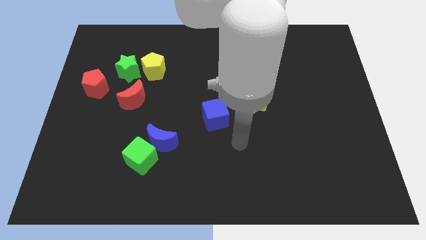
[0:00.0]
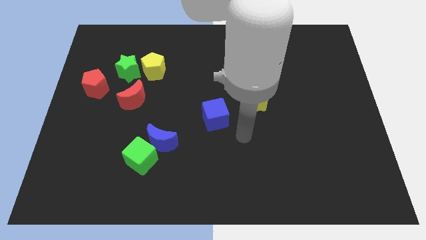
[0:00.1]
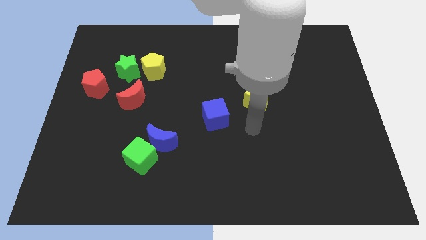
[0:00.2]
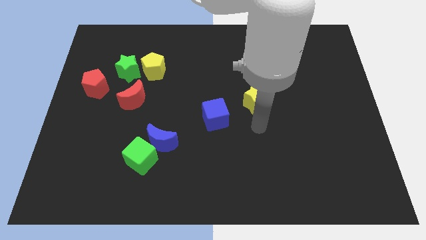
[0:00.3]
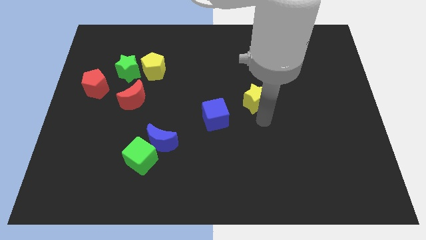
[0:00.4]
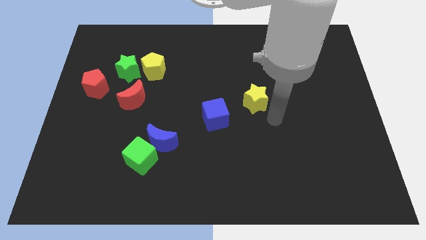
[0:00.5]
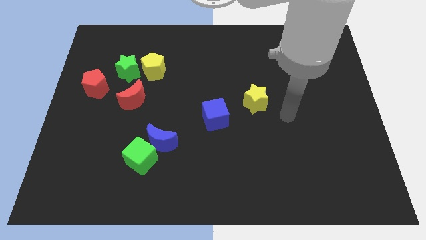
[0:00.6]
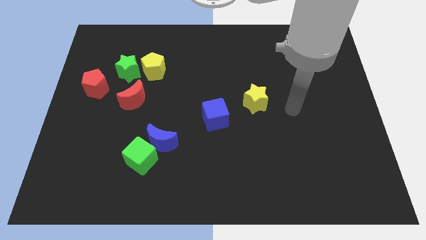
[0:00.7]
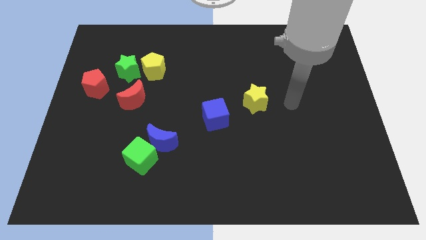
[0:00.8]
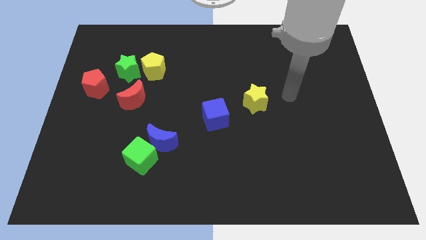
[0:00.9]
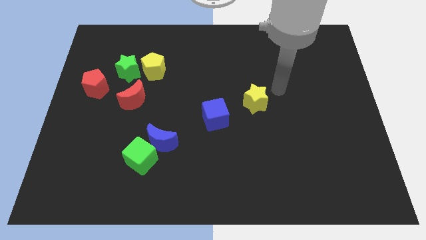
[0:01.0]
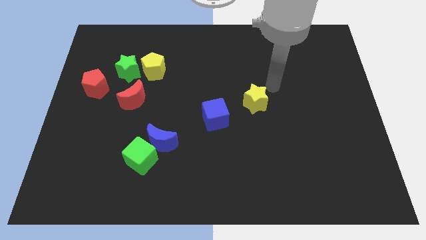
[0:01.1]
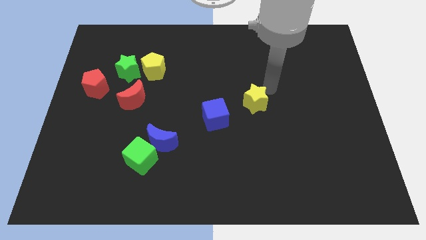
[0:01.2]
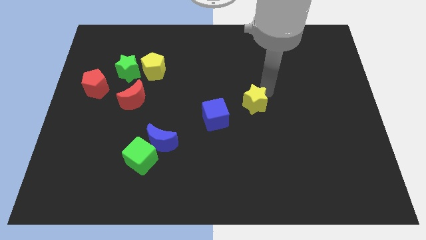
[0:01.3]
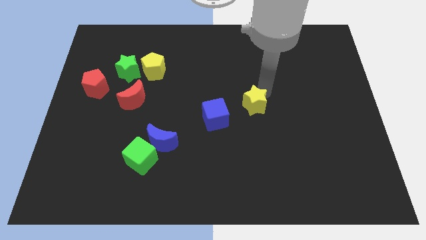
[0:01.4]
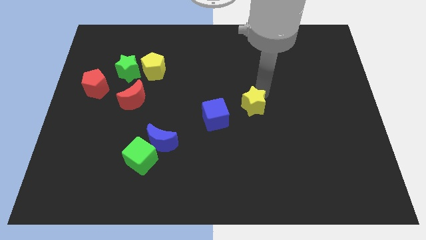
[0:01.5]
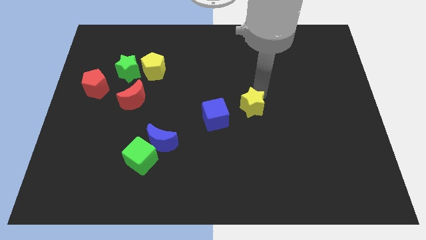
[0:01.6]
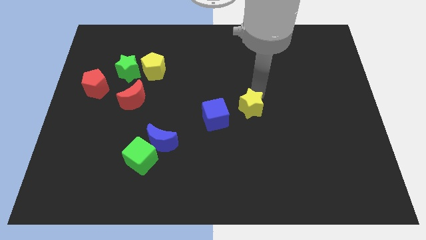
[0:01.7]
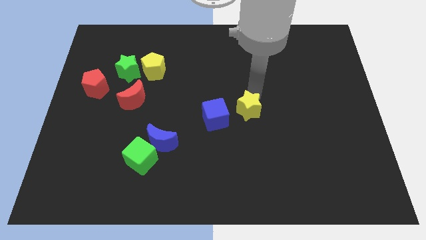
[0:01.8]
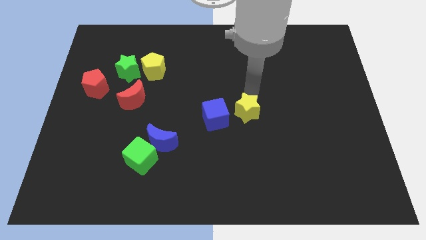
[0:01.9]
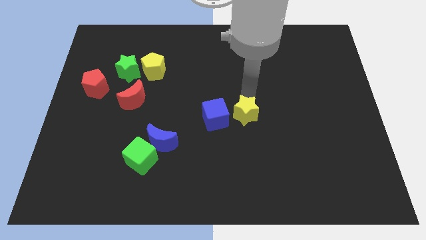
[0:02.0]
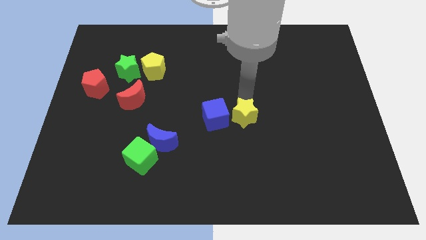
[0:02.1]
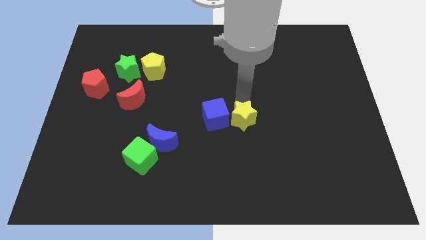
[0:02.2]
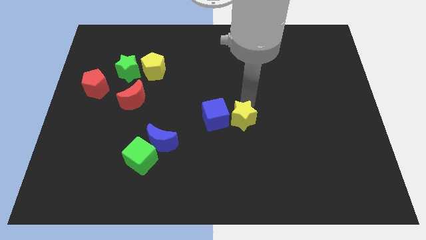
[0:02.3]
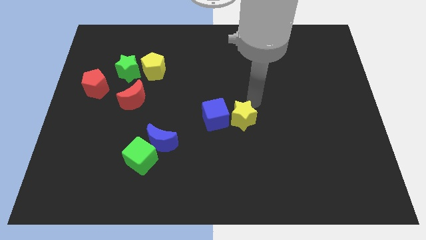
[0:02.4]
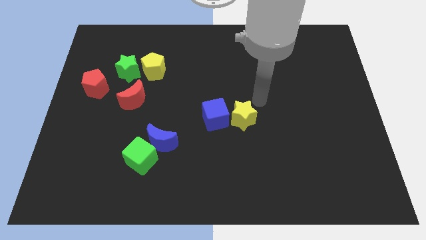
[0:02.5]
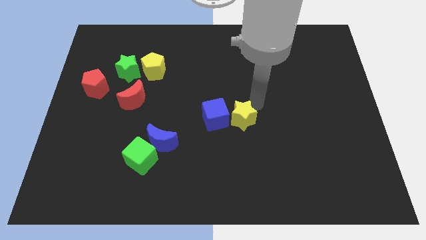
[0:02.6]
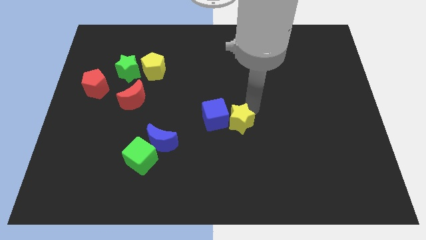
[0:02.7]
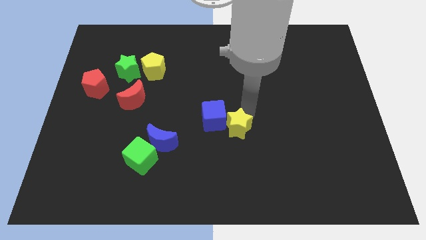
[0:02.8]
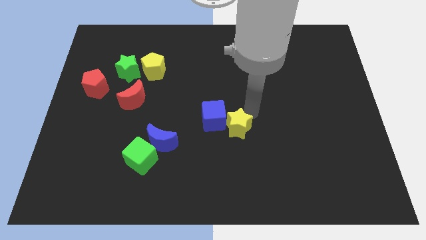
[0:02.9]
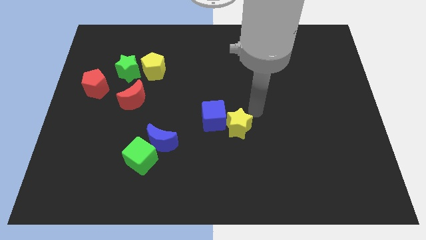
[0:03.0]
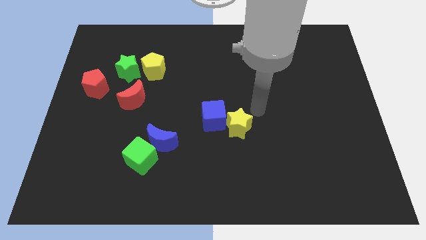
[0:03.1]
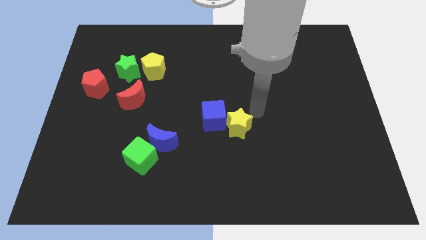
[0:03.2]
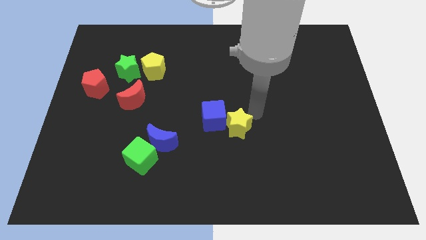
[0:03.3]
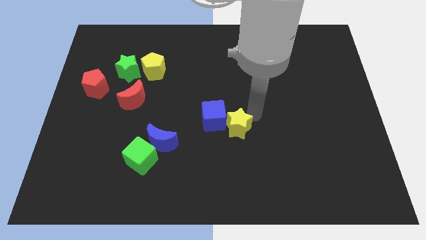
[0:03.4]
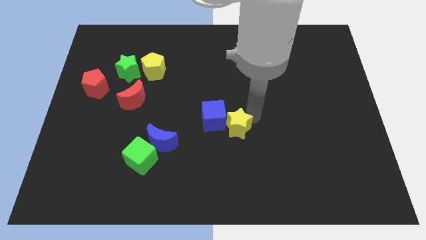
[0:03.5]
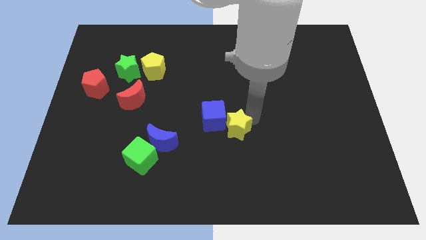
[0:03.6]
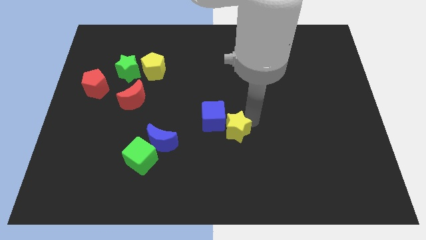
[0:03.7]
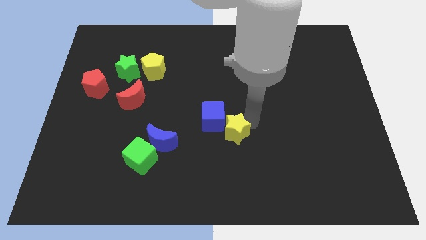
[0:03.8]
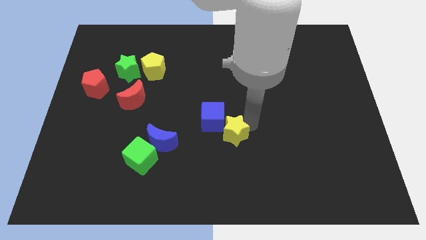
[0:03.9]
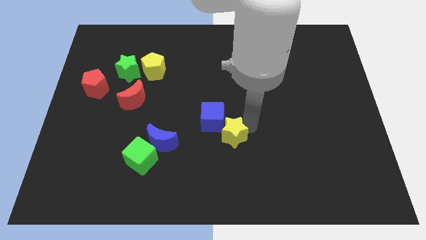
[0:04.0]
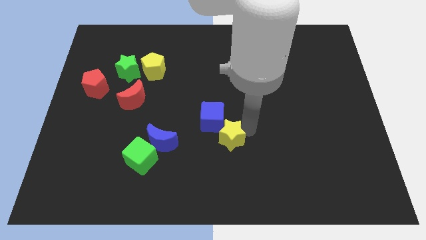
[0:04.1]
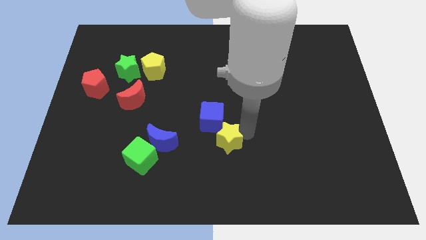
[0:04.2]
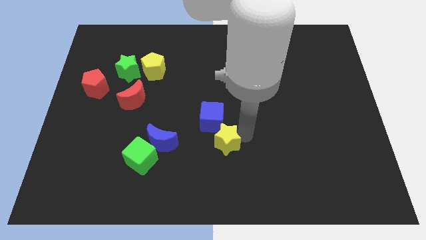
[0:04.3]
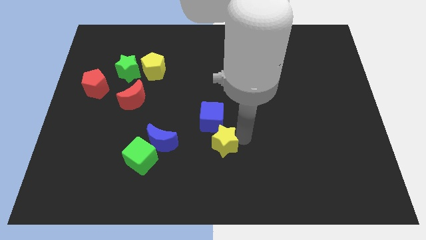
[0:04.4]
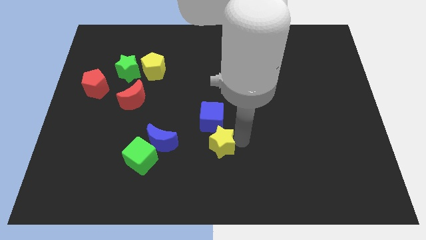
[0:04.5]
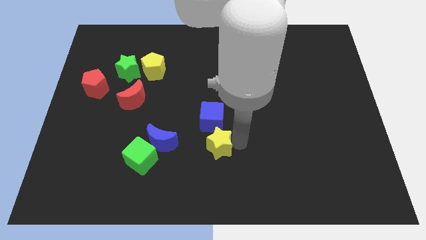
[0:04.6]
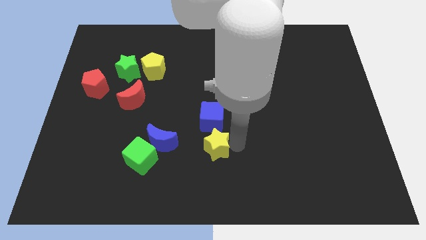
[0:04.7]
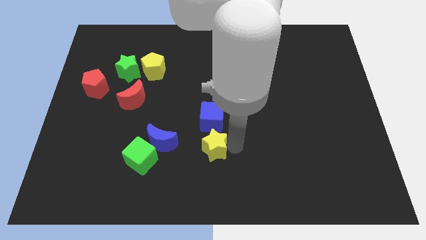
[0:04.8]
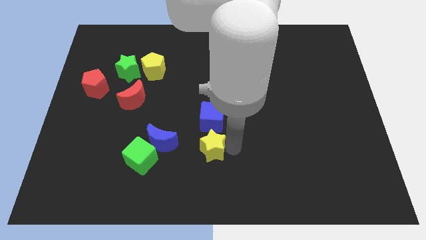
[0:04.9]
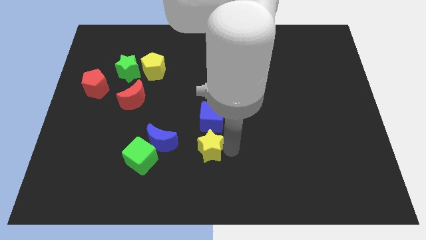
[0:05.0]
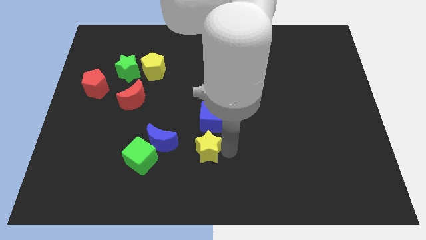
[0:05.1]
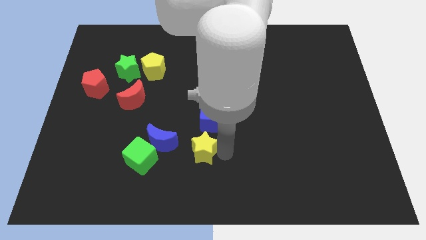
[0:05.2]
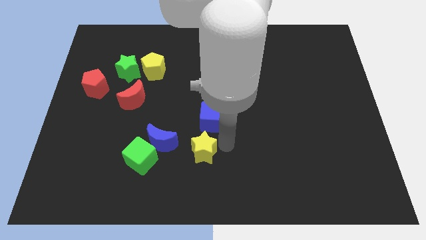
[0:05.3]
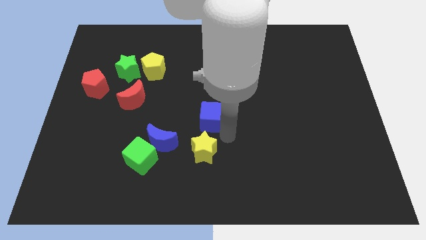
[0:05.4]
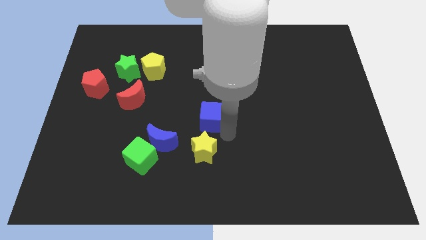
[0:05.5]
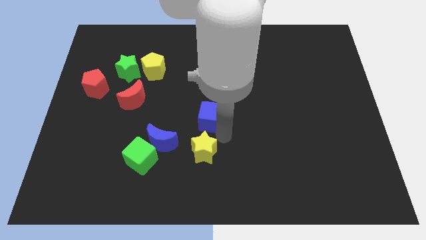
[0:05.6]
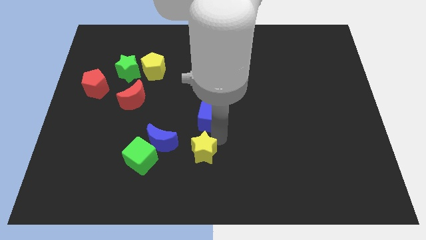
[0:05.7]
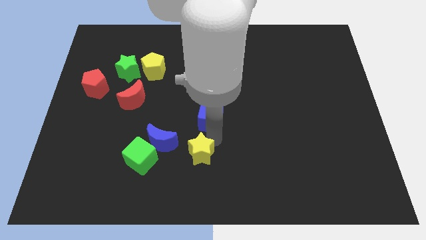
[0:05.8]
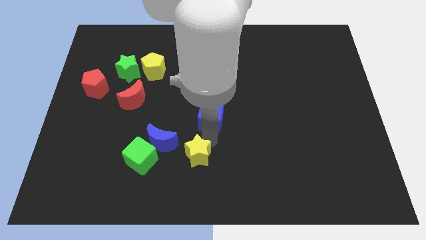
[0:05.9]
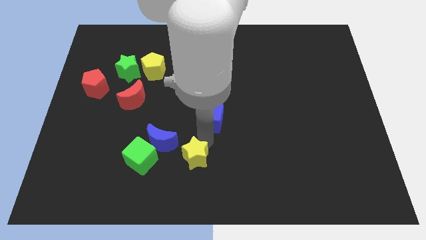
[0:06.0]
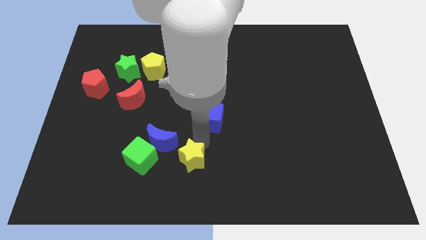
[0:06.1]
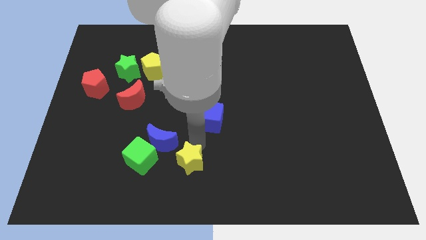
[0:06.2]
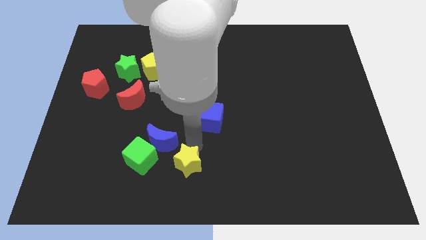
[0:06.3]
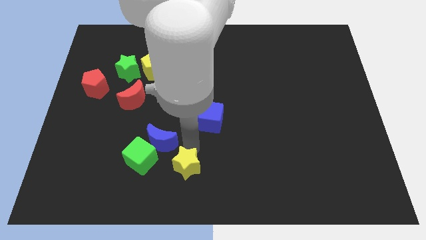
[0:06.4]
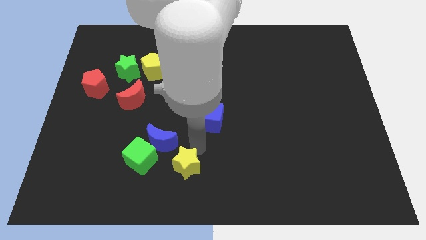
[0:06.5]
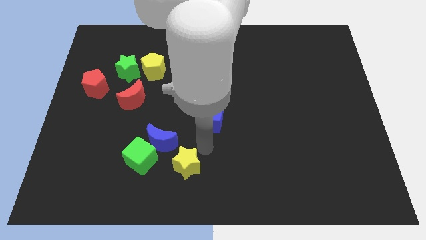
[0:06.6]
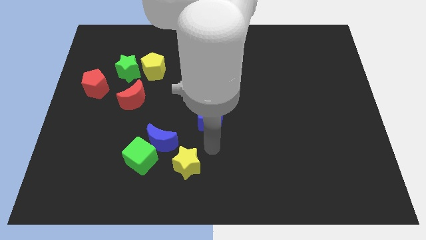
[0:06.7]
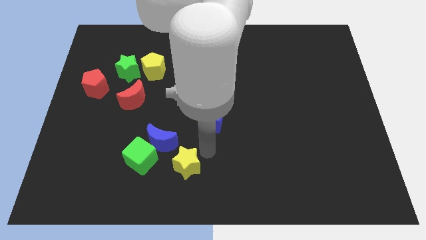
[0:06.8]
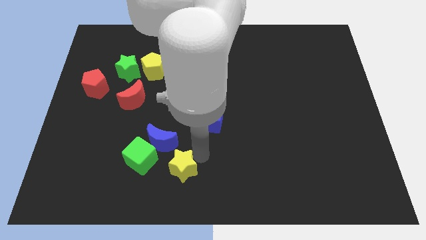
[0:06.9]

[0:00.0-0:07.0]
slide the yellow star diagonally down and to the right of the green cube

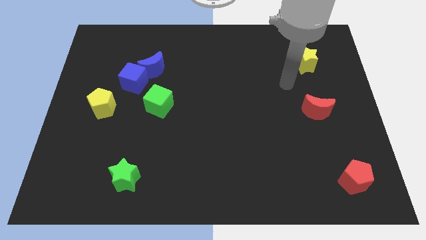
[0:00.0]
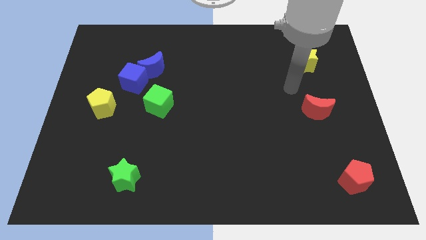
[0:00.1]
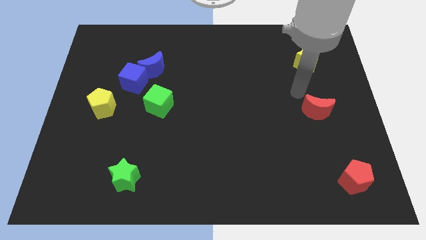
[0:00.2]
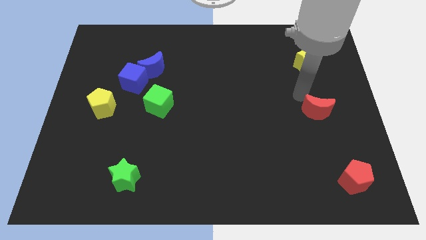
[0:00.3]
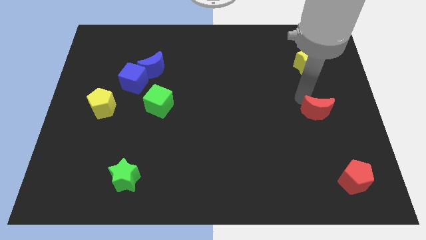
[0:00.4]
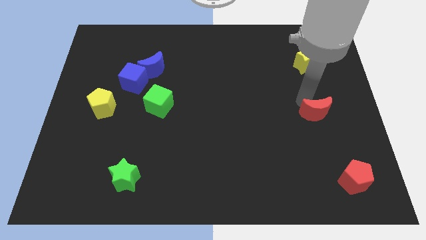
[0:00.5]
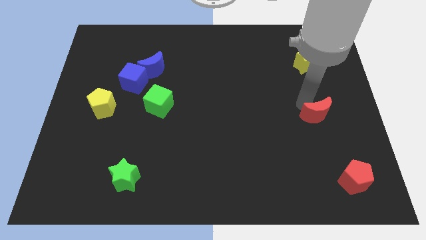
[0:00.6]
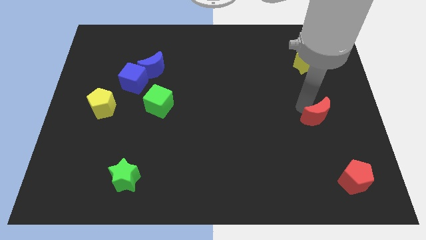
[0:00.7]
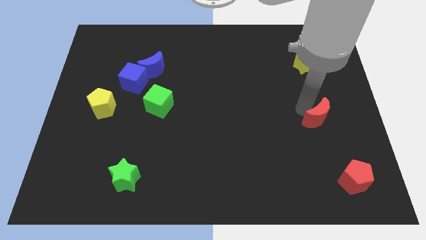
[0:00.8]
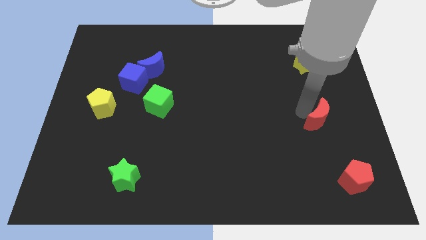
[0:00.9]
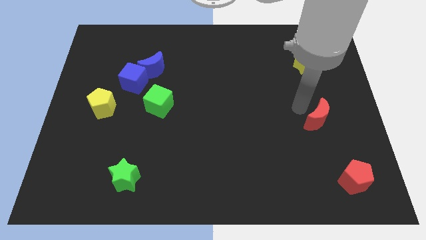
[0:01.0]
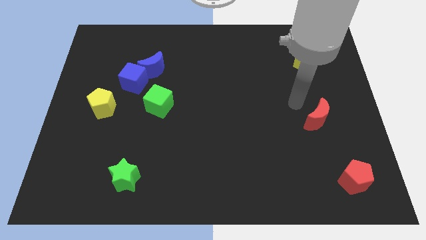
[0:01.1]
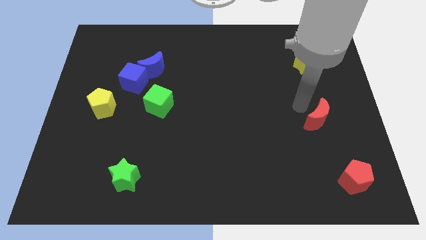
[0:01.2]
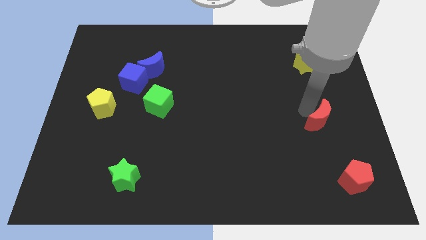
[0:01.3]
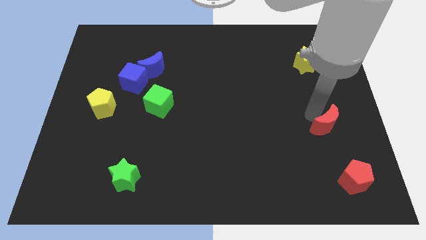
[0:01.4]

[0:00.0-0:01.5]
move the red moon to the top side of the red pentagon
